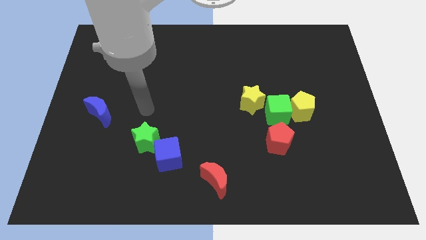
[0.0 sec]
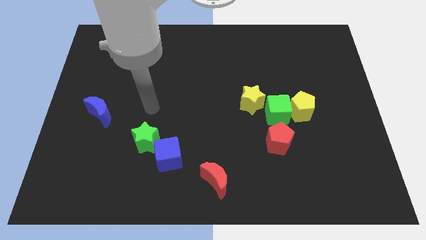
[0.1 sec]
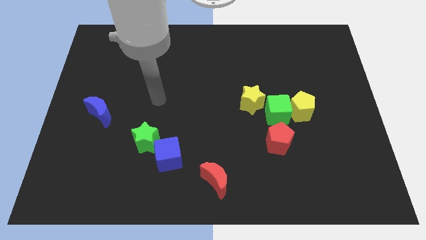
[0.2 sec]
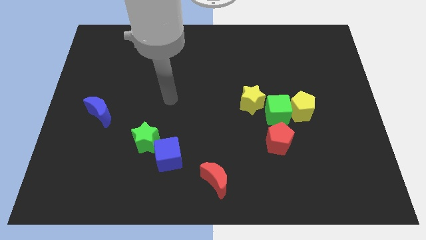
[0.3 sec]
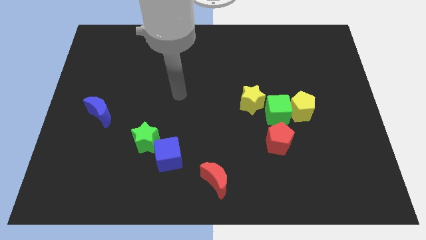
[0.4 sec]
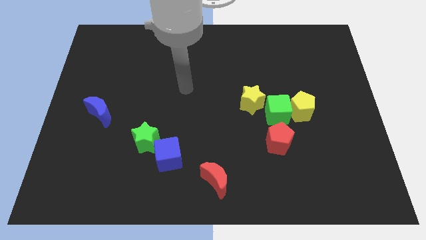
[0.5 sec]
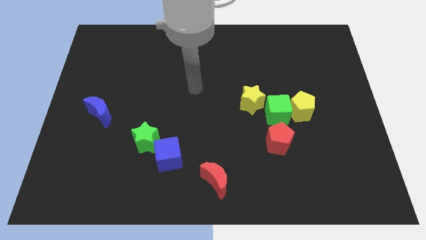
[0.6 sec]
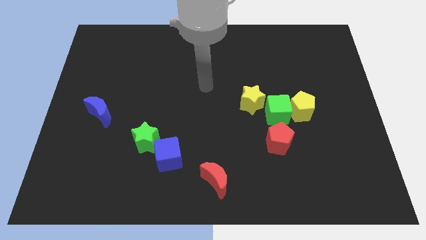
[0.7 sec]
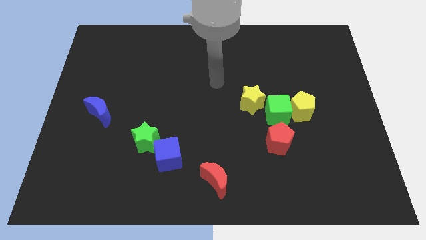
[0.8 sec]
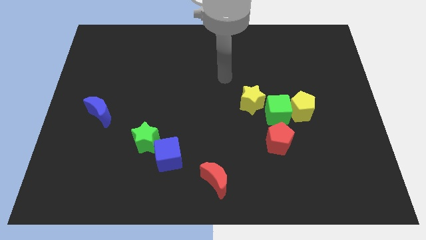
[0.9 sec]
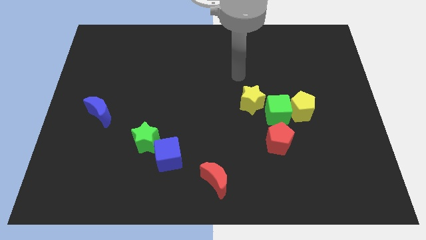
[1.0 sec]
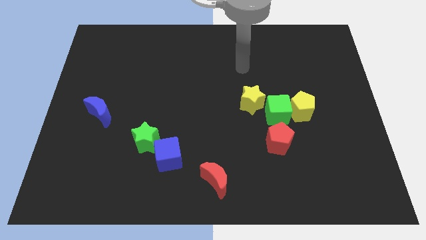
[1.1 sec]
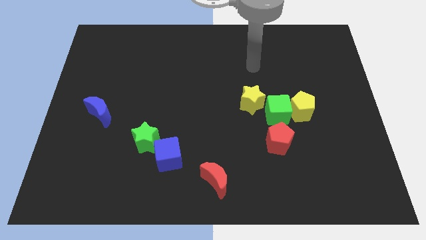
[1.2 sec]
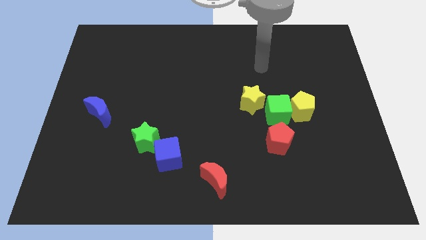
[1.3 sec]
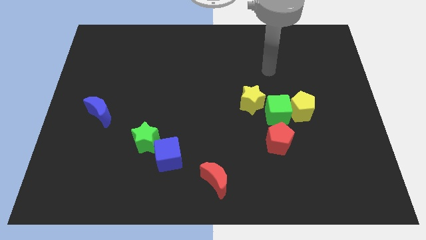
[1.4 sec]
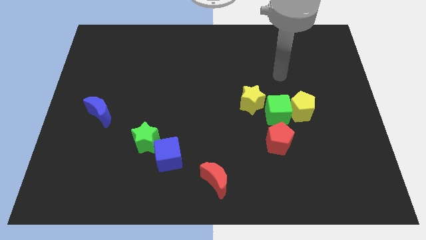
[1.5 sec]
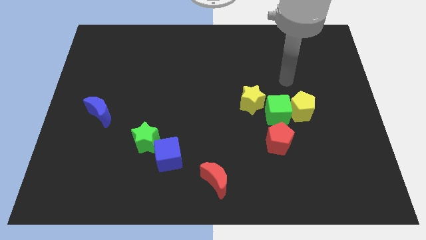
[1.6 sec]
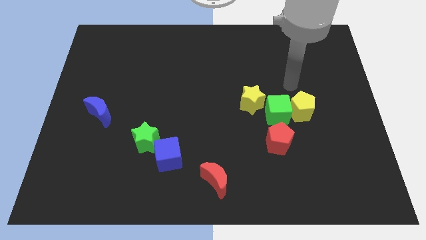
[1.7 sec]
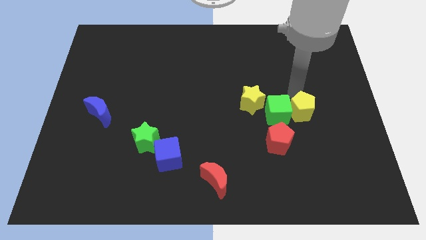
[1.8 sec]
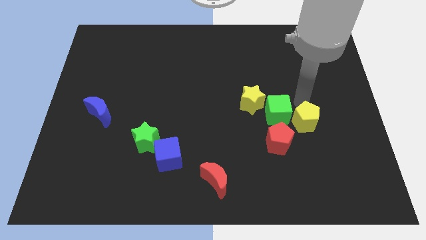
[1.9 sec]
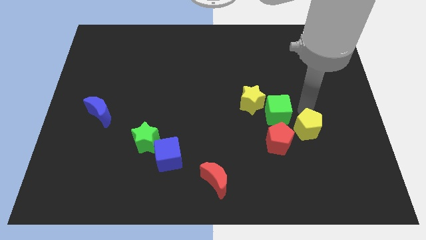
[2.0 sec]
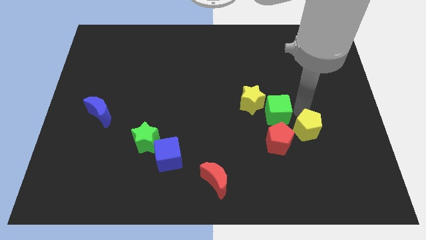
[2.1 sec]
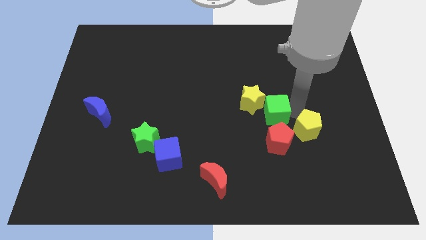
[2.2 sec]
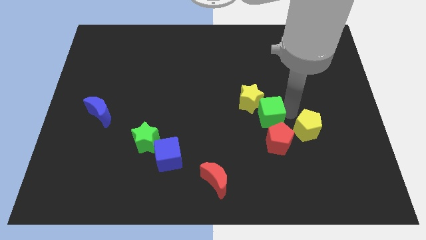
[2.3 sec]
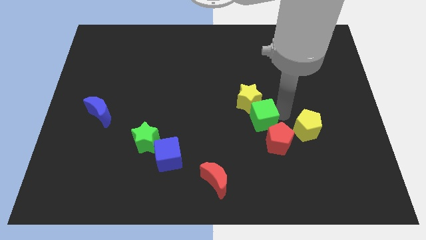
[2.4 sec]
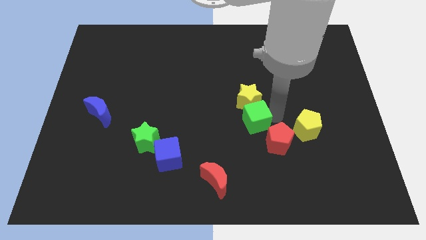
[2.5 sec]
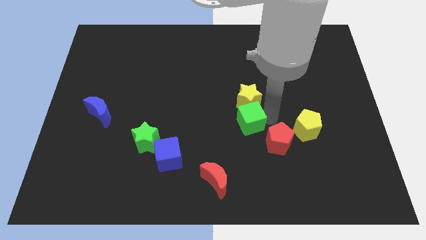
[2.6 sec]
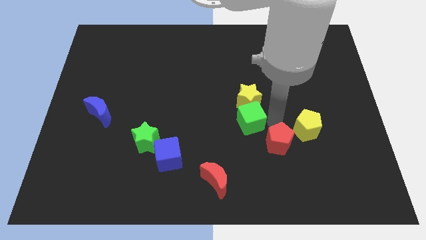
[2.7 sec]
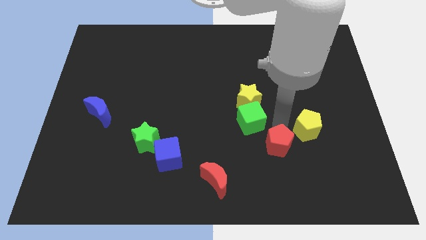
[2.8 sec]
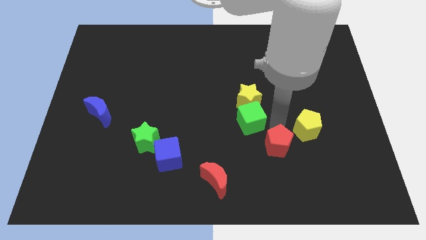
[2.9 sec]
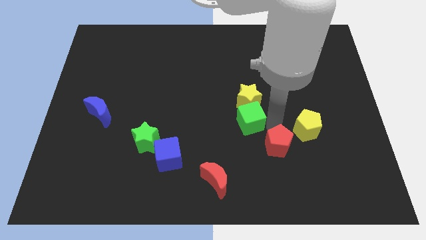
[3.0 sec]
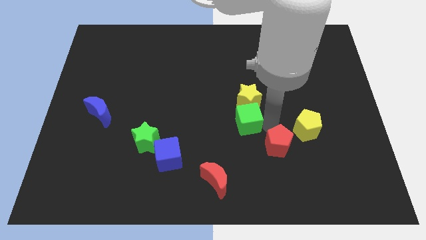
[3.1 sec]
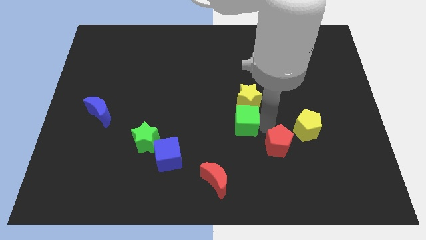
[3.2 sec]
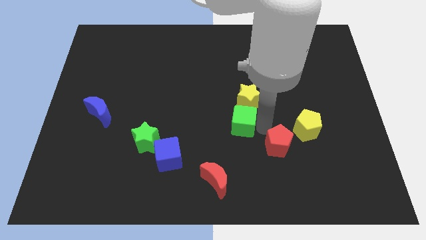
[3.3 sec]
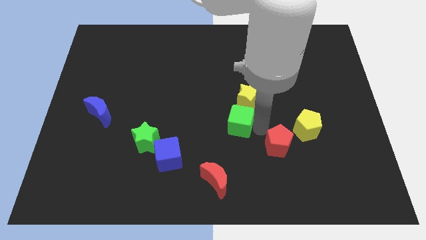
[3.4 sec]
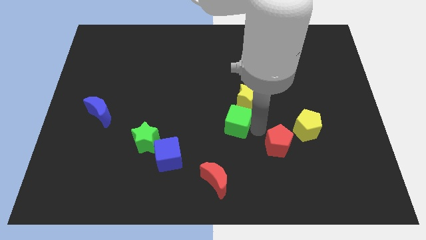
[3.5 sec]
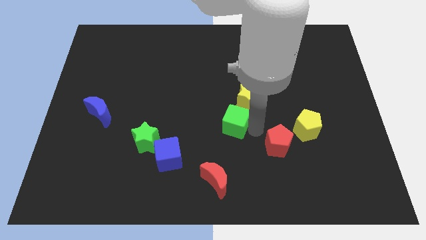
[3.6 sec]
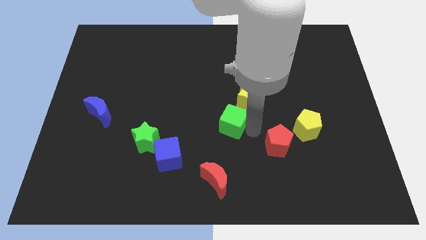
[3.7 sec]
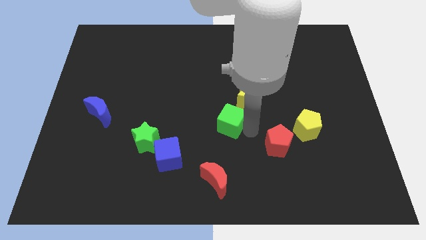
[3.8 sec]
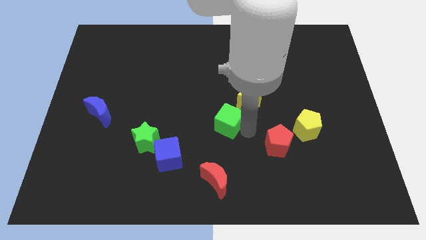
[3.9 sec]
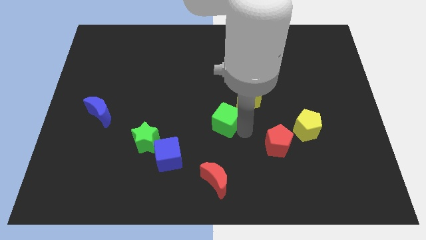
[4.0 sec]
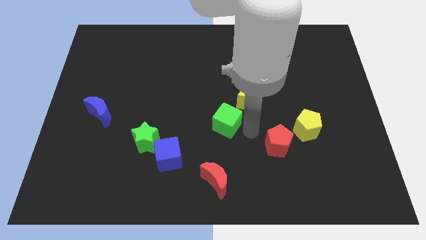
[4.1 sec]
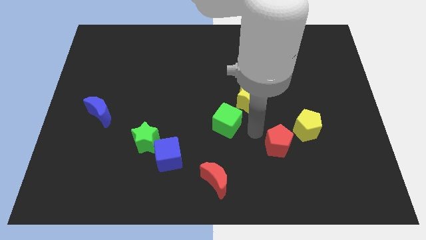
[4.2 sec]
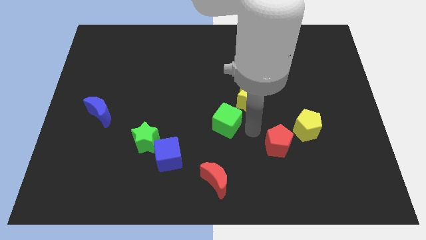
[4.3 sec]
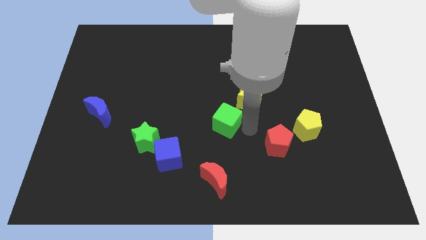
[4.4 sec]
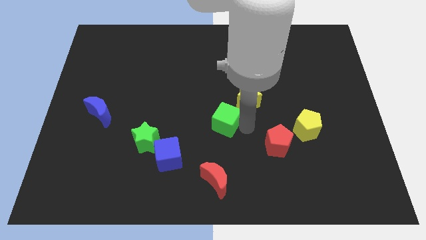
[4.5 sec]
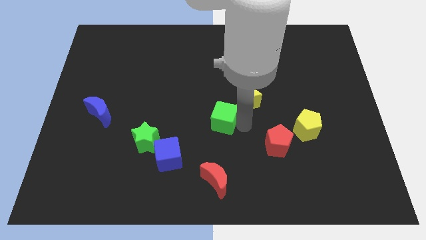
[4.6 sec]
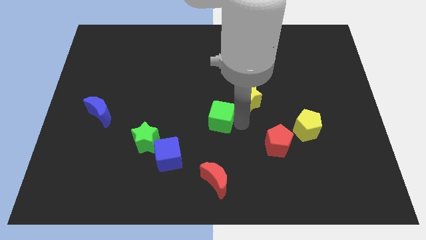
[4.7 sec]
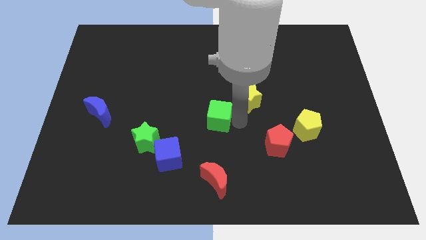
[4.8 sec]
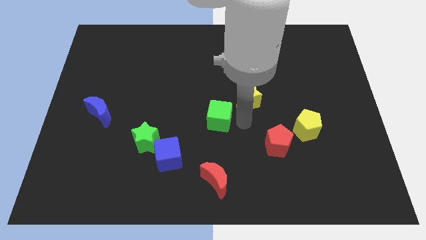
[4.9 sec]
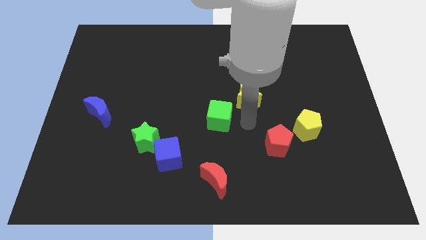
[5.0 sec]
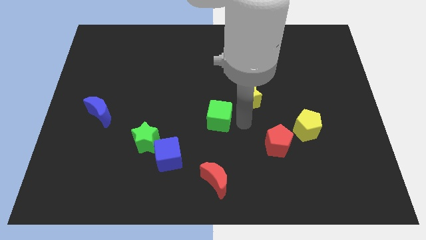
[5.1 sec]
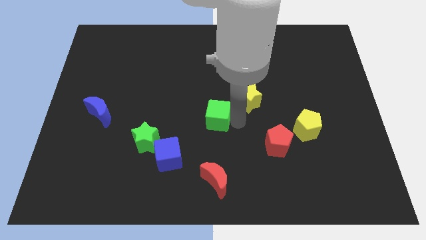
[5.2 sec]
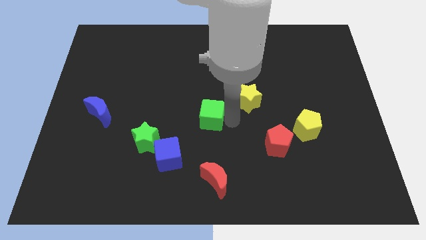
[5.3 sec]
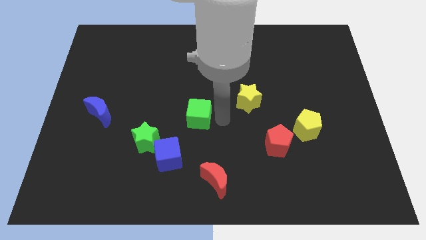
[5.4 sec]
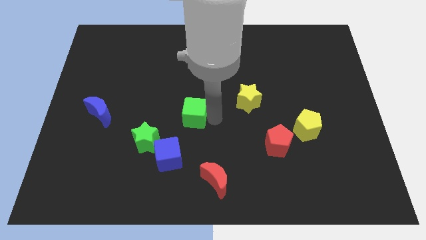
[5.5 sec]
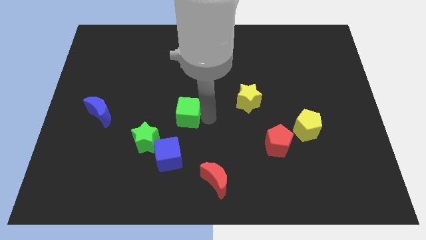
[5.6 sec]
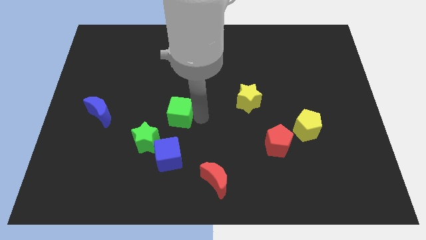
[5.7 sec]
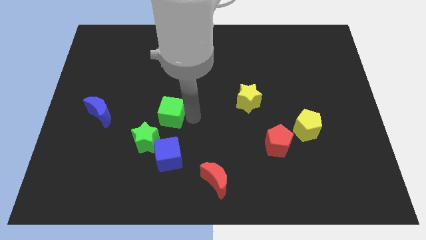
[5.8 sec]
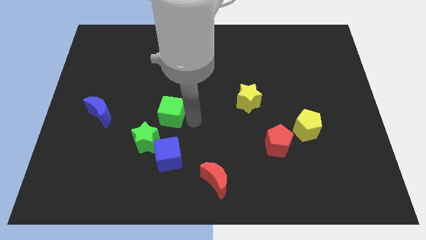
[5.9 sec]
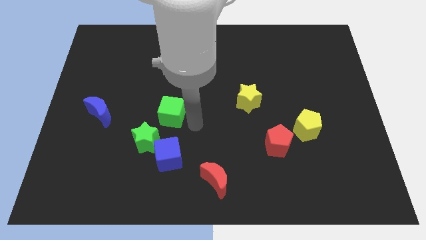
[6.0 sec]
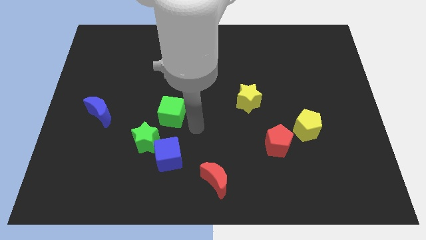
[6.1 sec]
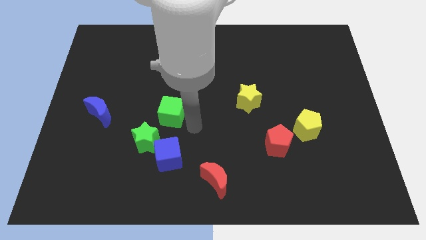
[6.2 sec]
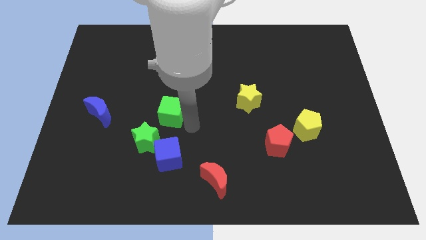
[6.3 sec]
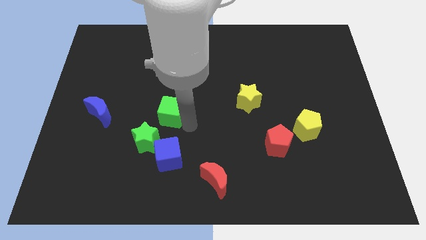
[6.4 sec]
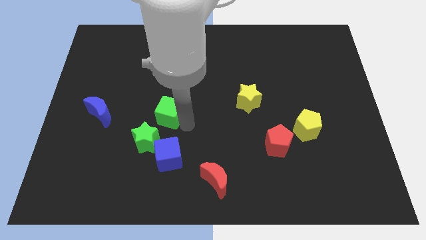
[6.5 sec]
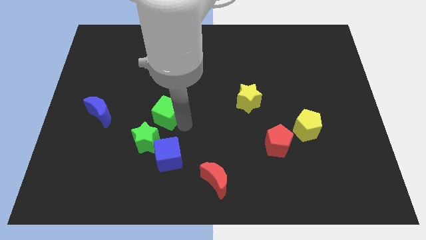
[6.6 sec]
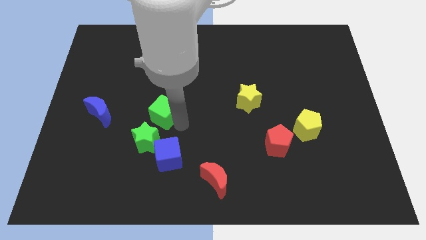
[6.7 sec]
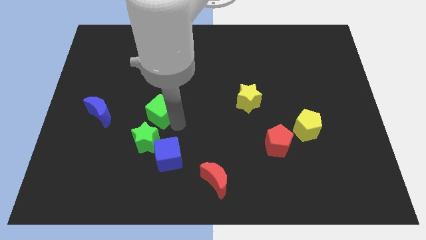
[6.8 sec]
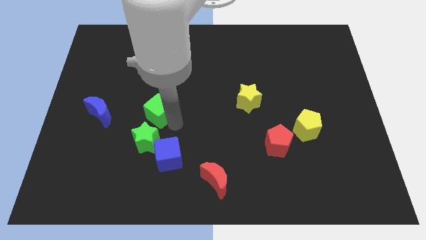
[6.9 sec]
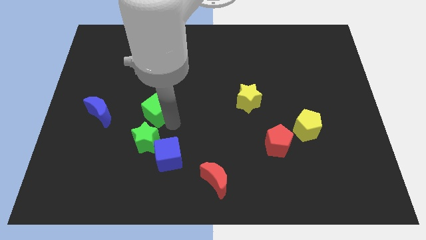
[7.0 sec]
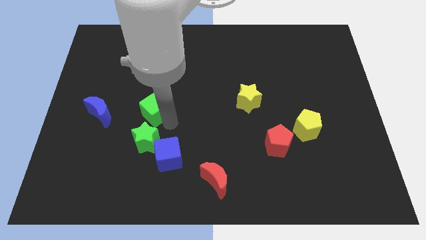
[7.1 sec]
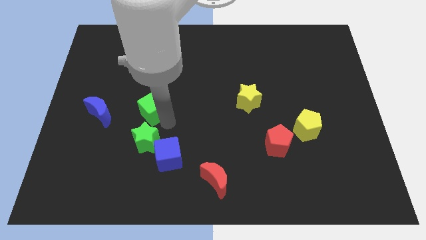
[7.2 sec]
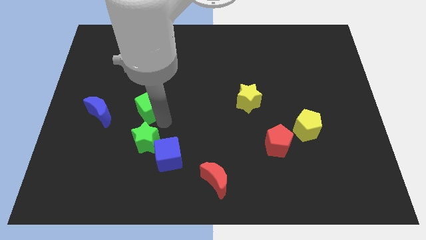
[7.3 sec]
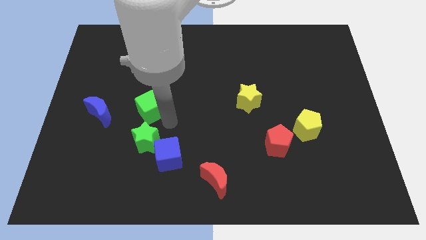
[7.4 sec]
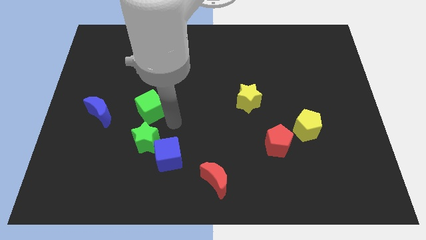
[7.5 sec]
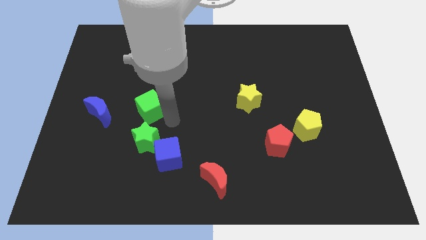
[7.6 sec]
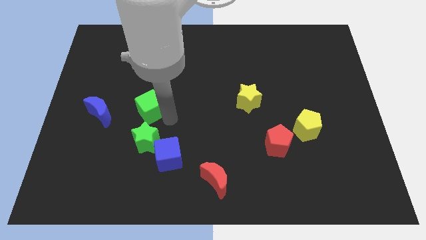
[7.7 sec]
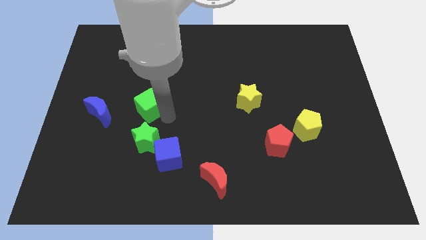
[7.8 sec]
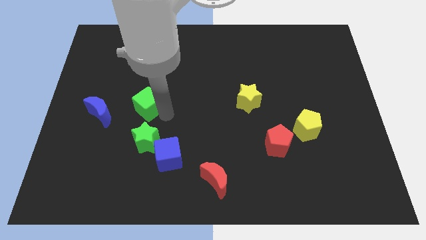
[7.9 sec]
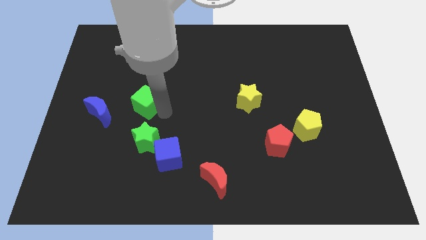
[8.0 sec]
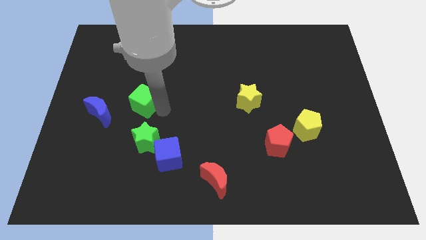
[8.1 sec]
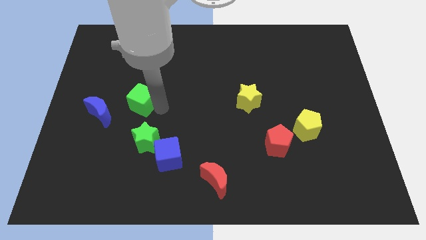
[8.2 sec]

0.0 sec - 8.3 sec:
push the green cube to the top right side of the blue moon
